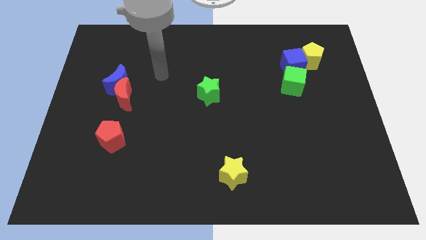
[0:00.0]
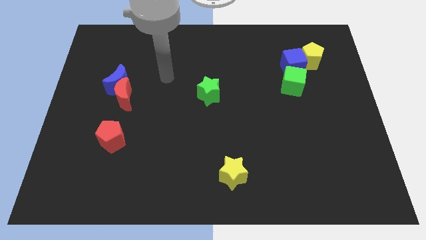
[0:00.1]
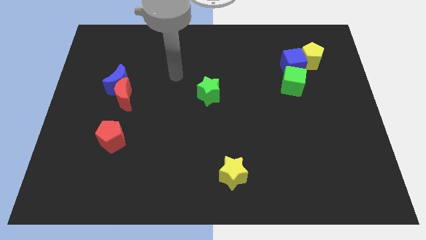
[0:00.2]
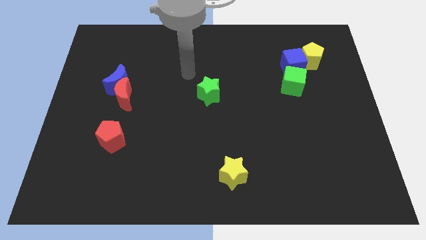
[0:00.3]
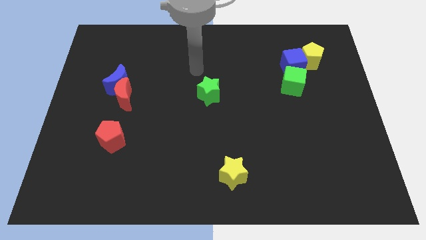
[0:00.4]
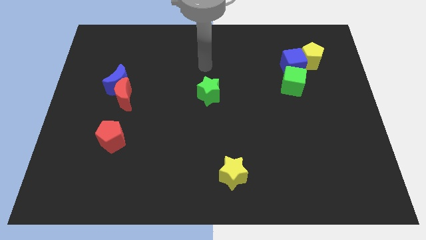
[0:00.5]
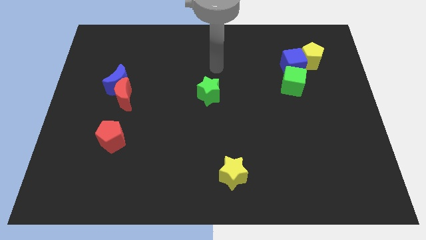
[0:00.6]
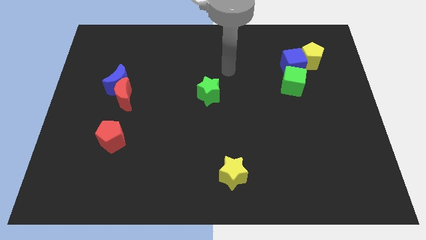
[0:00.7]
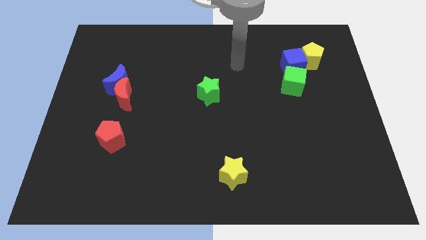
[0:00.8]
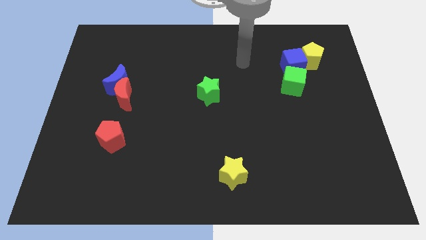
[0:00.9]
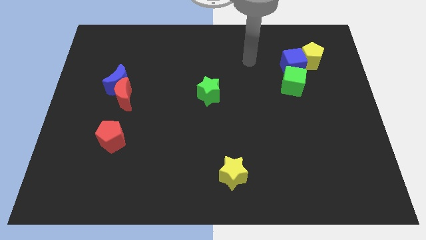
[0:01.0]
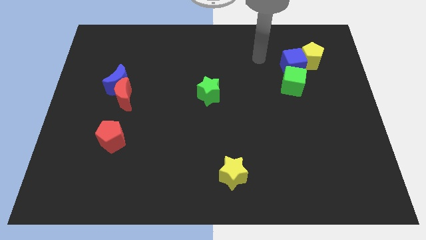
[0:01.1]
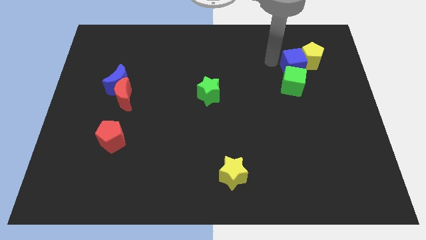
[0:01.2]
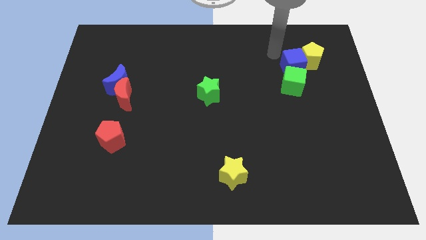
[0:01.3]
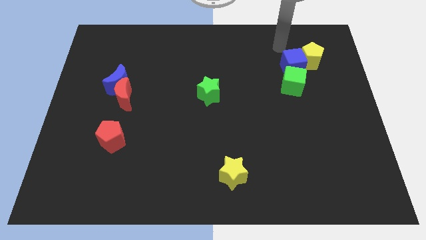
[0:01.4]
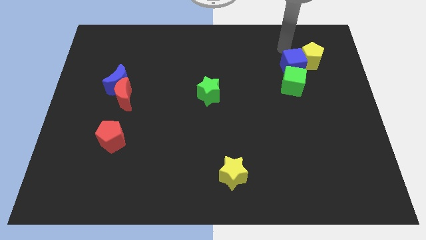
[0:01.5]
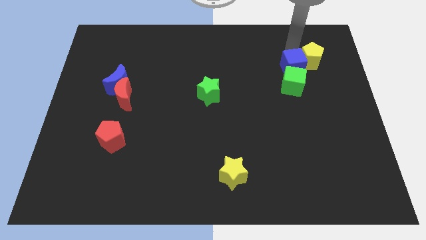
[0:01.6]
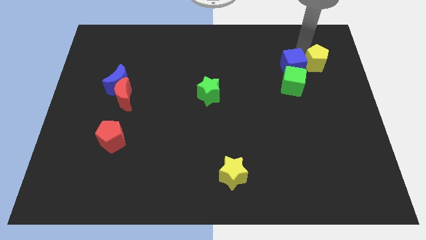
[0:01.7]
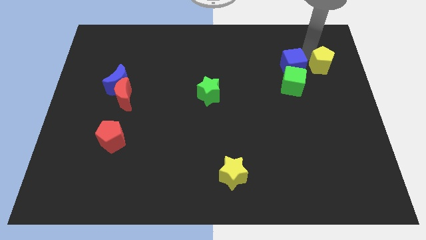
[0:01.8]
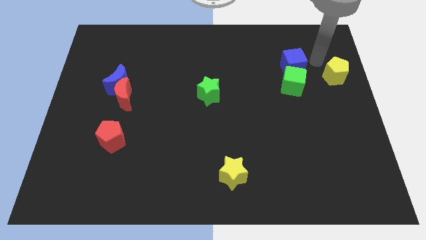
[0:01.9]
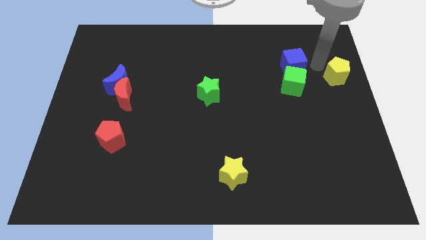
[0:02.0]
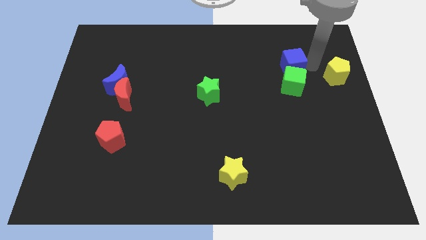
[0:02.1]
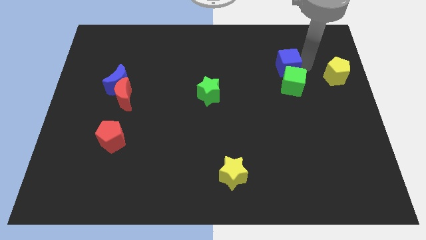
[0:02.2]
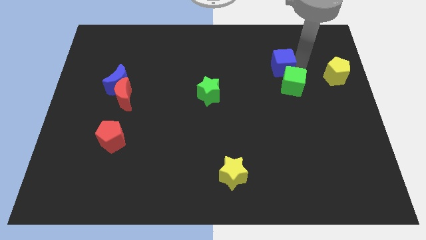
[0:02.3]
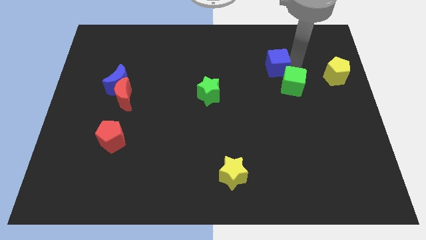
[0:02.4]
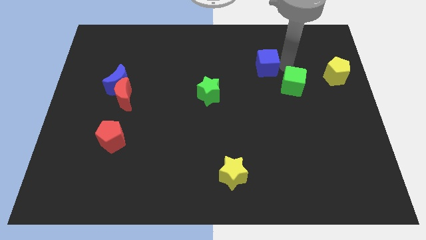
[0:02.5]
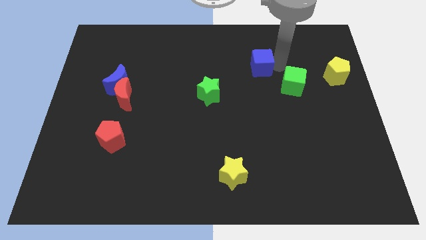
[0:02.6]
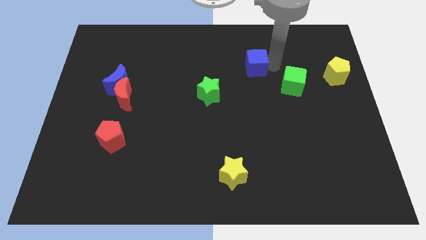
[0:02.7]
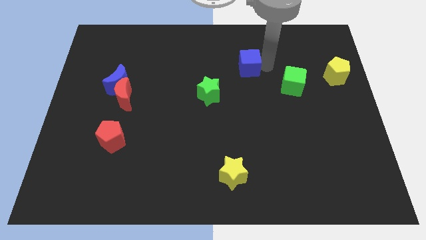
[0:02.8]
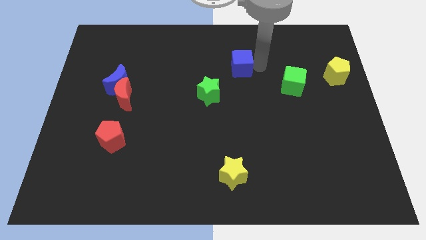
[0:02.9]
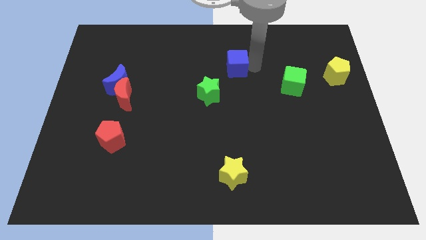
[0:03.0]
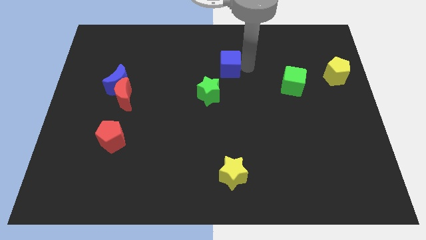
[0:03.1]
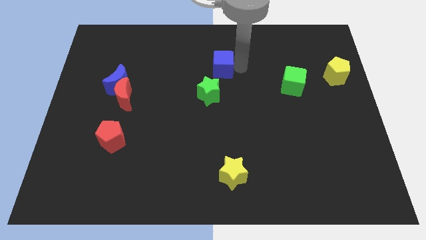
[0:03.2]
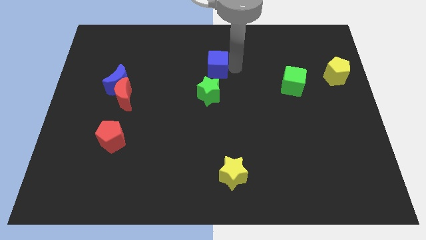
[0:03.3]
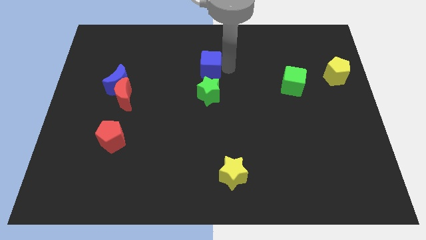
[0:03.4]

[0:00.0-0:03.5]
move the blue cube left

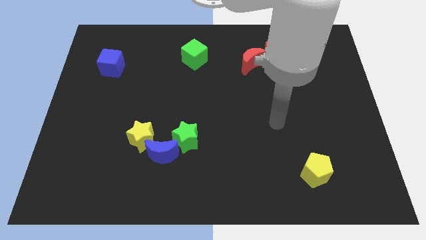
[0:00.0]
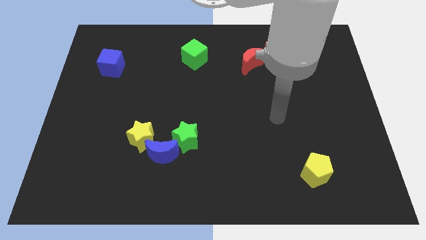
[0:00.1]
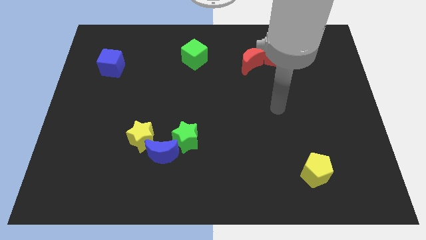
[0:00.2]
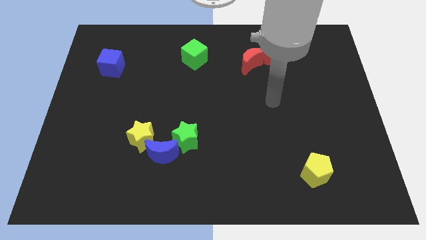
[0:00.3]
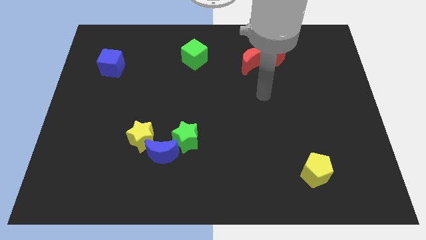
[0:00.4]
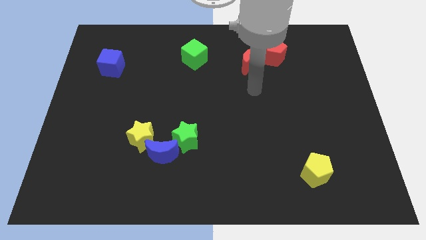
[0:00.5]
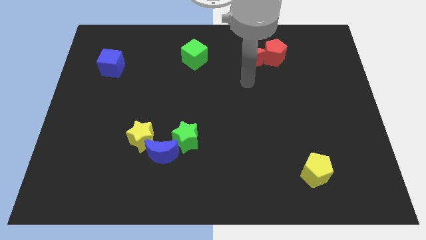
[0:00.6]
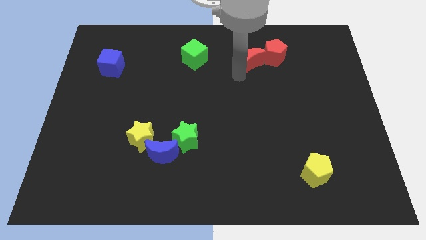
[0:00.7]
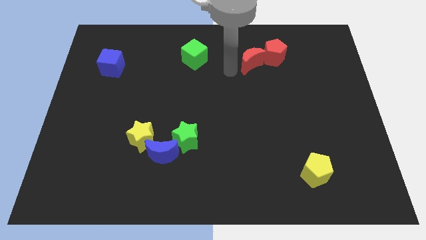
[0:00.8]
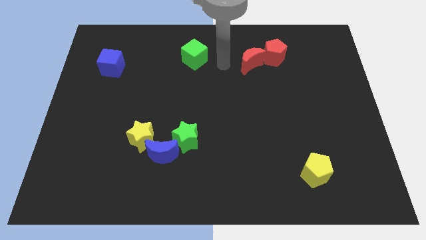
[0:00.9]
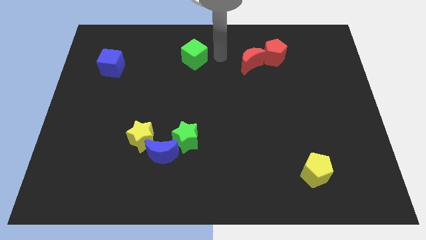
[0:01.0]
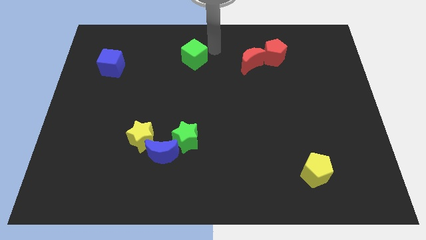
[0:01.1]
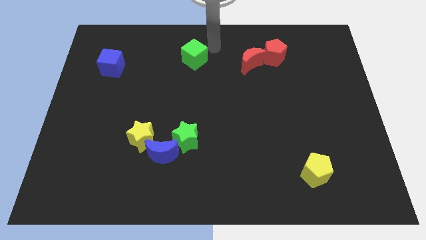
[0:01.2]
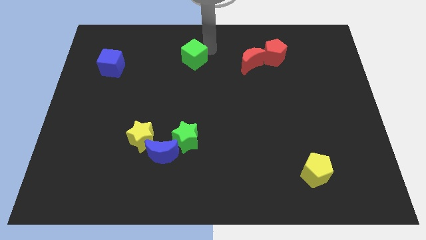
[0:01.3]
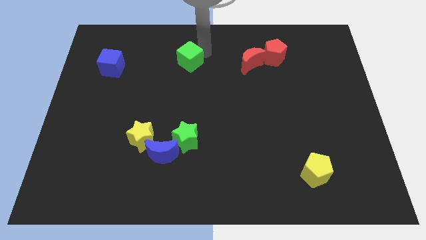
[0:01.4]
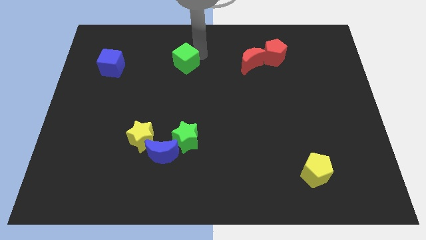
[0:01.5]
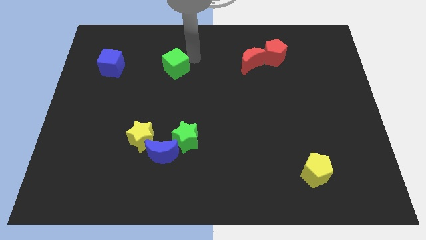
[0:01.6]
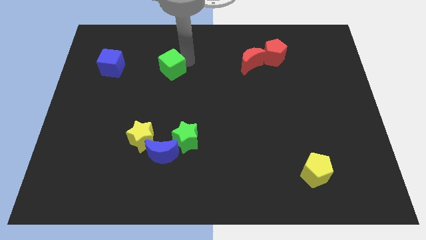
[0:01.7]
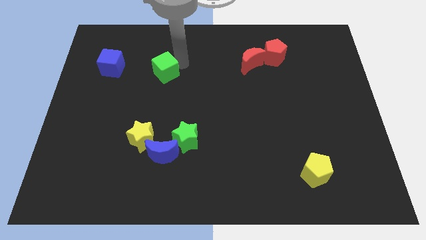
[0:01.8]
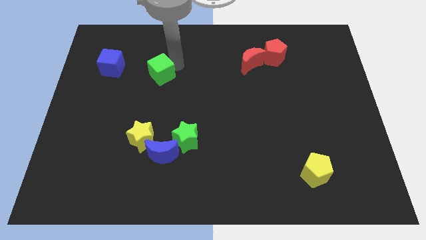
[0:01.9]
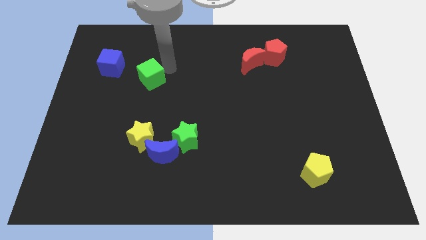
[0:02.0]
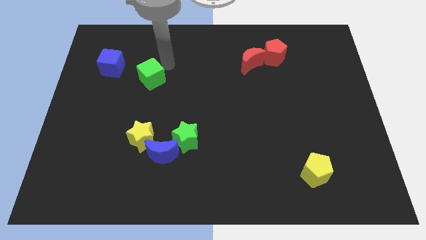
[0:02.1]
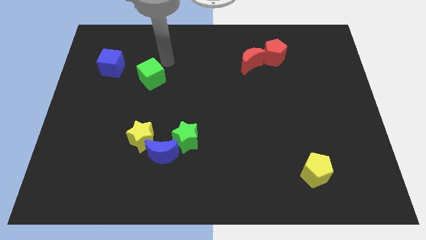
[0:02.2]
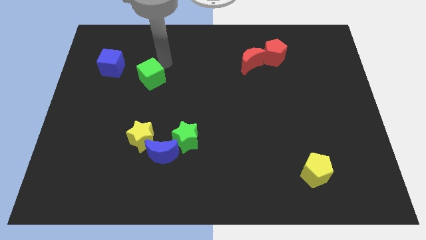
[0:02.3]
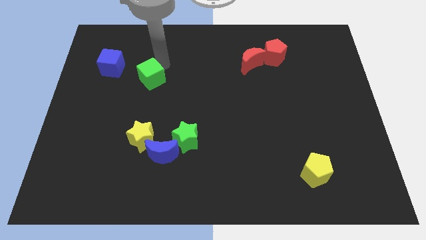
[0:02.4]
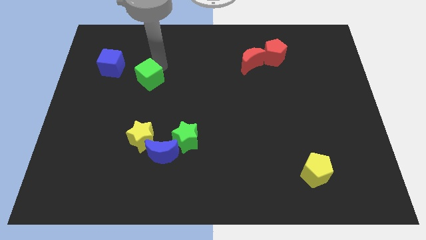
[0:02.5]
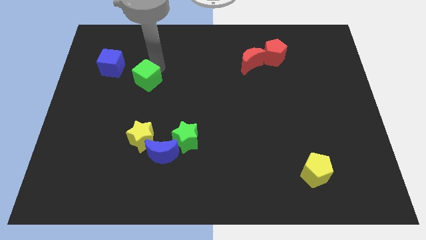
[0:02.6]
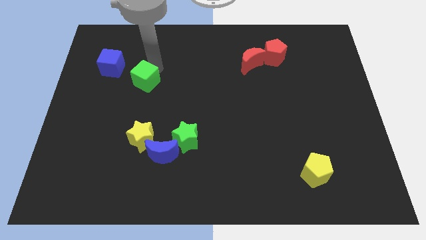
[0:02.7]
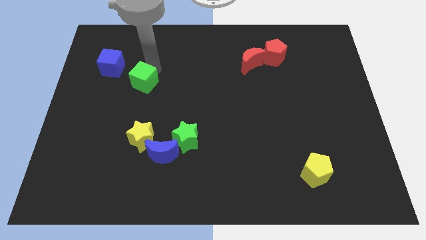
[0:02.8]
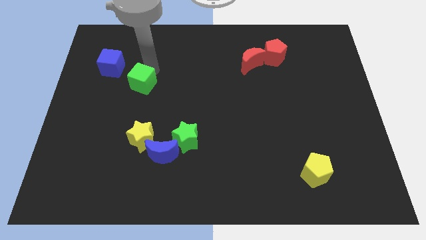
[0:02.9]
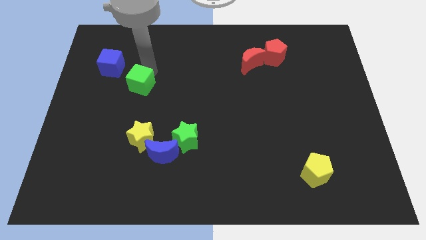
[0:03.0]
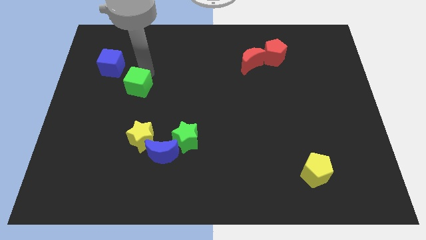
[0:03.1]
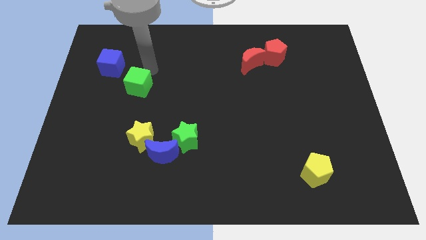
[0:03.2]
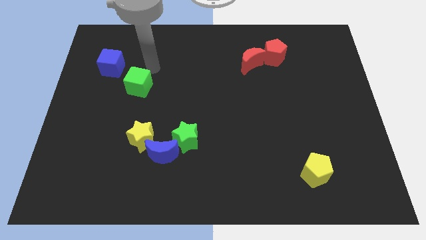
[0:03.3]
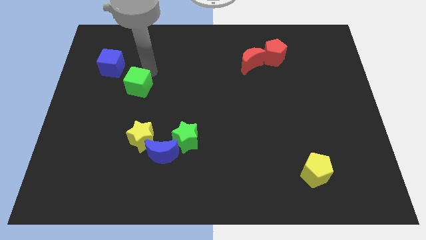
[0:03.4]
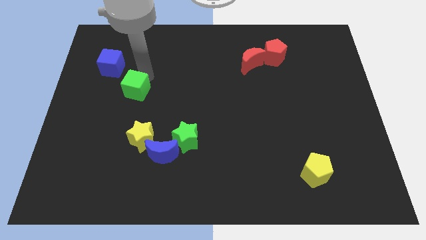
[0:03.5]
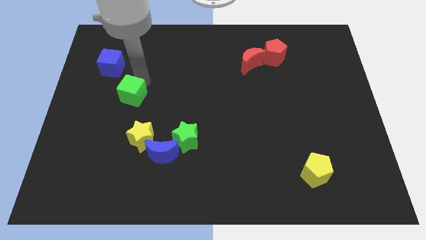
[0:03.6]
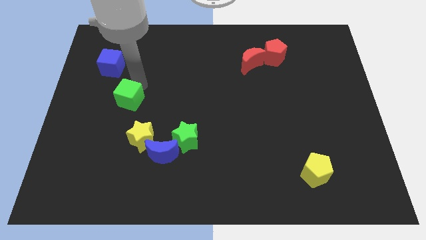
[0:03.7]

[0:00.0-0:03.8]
push the green cube diagonally downwards and to the left

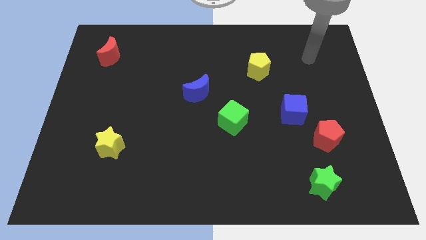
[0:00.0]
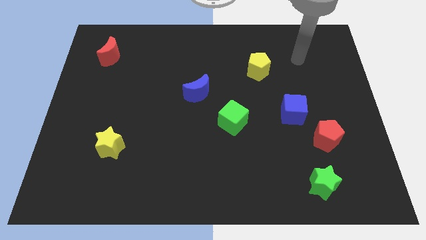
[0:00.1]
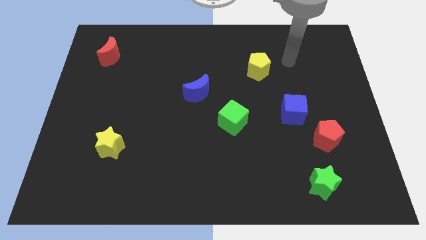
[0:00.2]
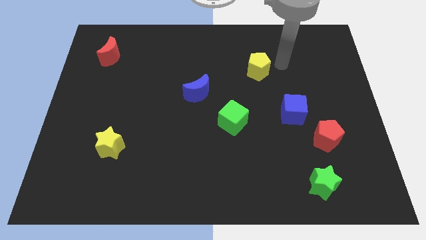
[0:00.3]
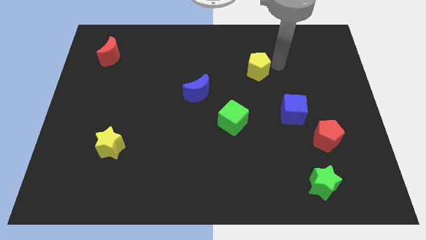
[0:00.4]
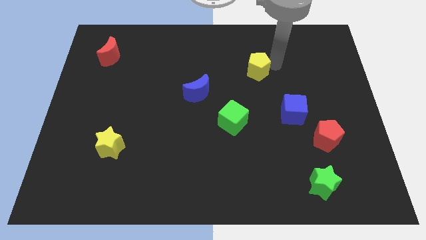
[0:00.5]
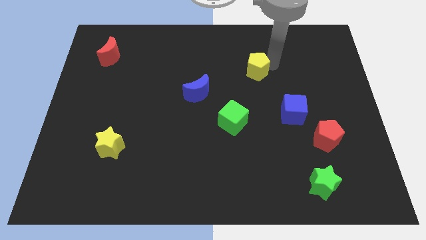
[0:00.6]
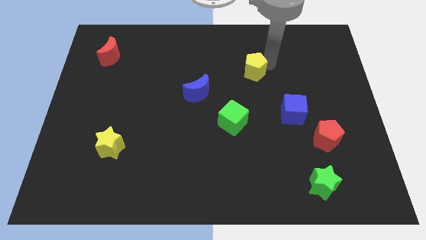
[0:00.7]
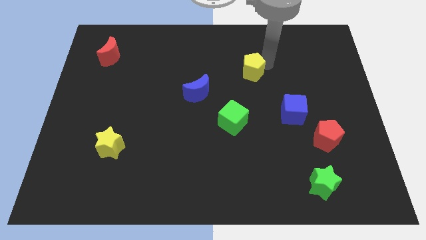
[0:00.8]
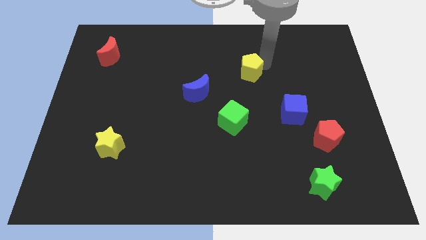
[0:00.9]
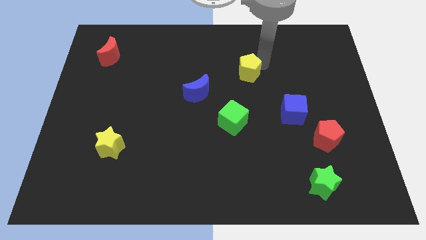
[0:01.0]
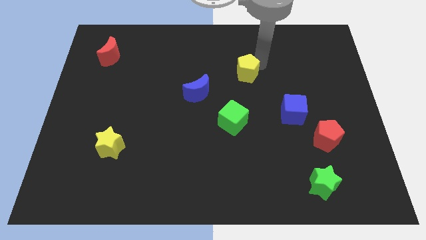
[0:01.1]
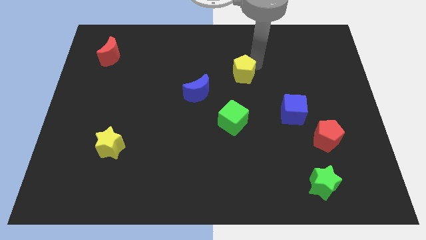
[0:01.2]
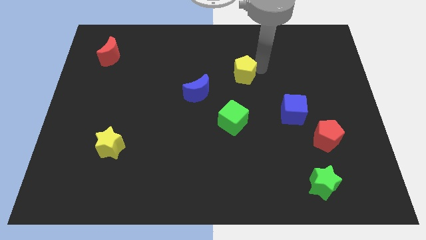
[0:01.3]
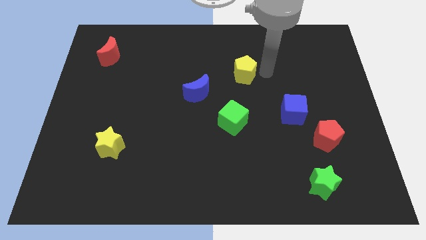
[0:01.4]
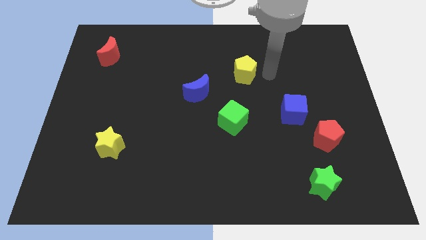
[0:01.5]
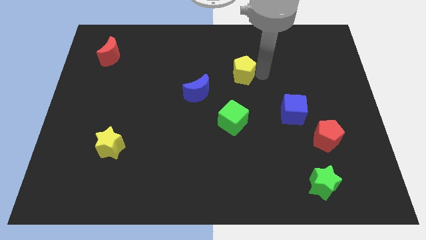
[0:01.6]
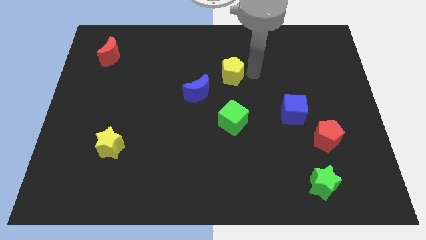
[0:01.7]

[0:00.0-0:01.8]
slightly slide the yellow pentagon to the left
